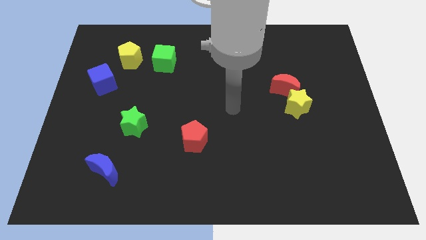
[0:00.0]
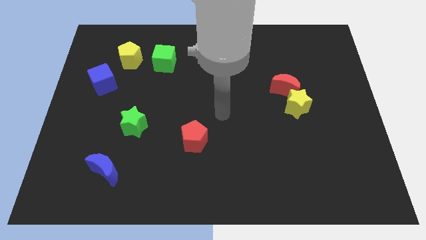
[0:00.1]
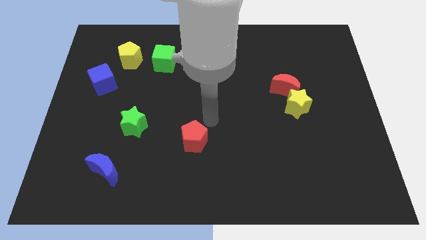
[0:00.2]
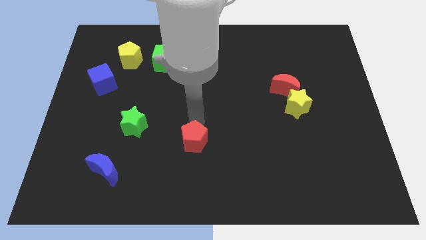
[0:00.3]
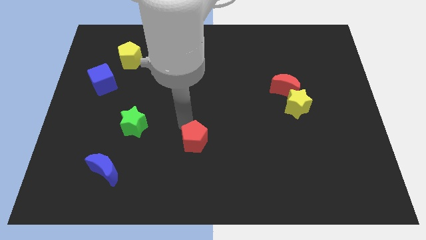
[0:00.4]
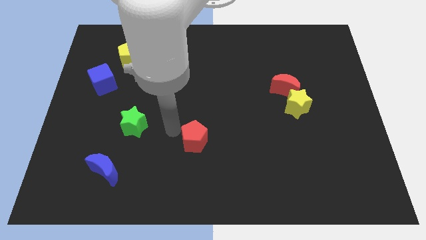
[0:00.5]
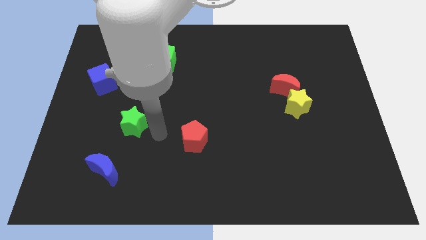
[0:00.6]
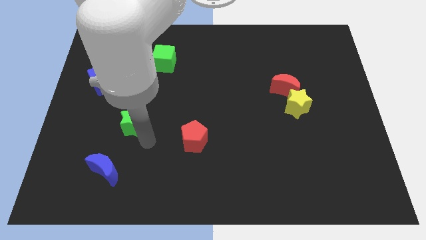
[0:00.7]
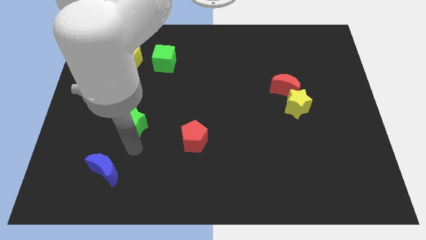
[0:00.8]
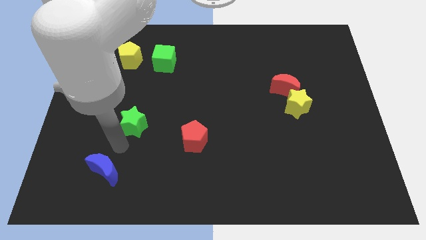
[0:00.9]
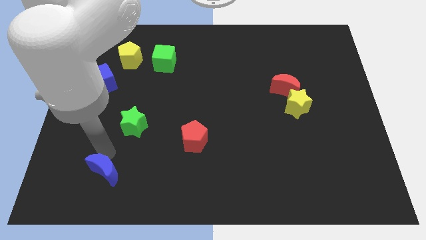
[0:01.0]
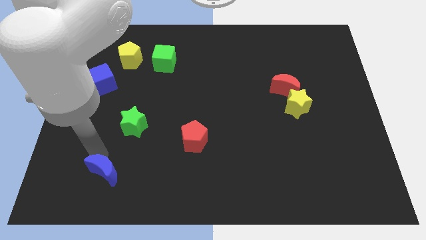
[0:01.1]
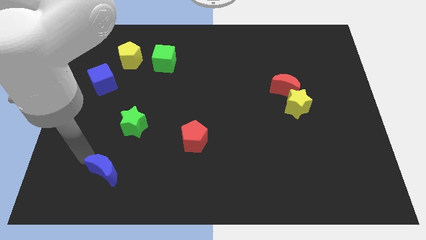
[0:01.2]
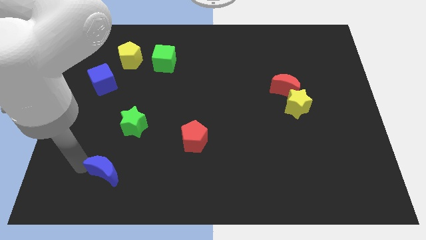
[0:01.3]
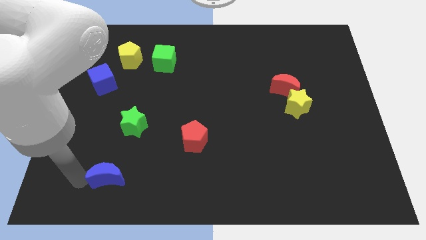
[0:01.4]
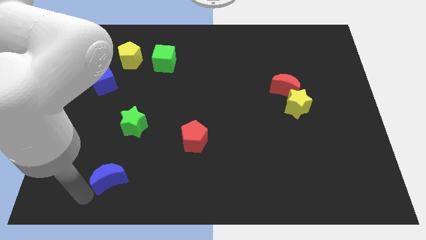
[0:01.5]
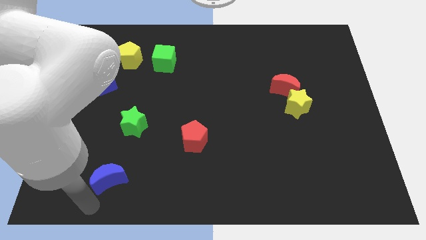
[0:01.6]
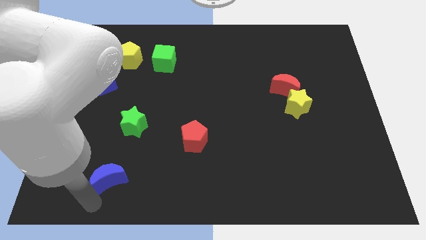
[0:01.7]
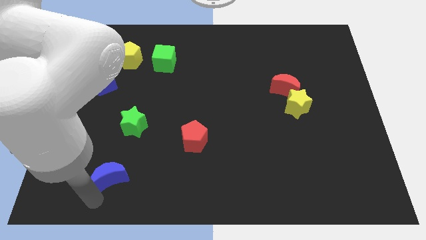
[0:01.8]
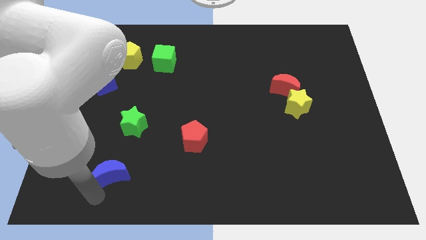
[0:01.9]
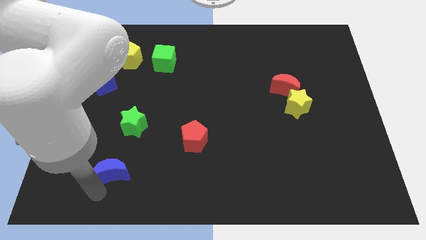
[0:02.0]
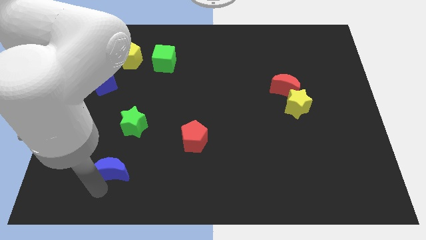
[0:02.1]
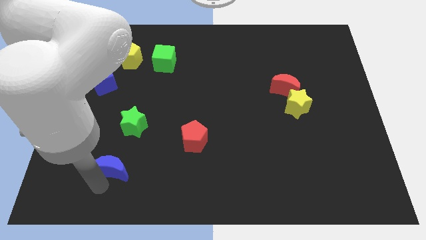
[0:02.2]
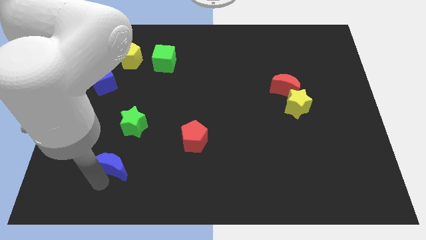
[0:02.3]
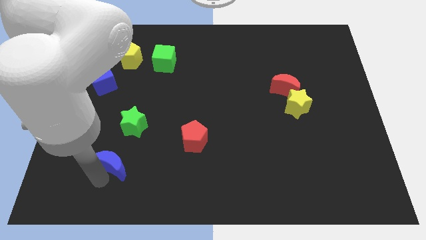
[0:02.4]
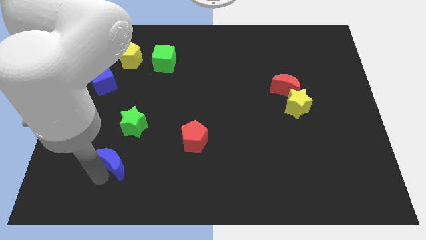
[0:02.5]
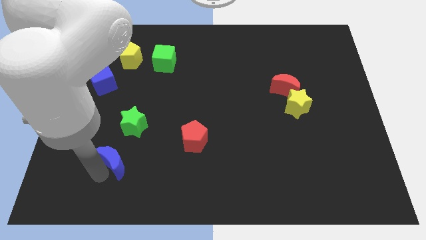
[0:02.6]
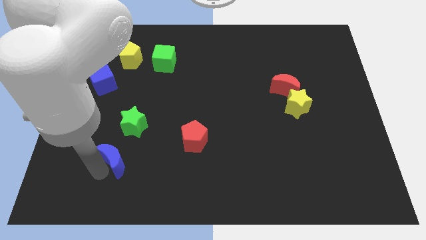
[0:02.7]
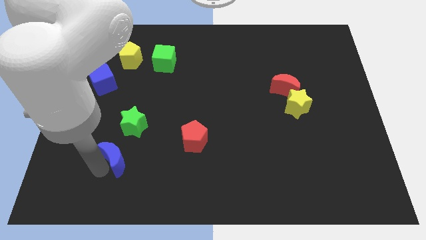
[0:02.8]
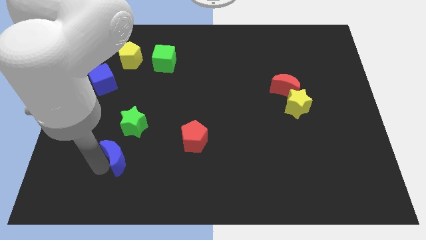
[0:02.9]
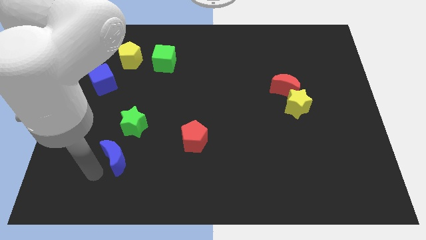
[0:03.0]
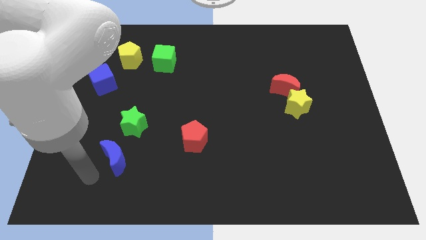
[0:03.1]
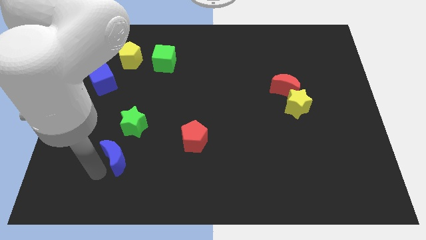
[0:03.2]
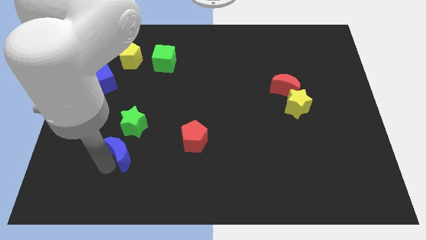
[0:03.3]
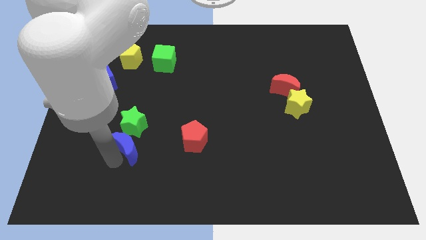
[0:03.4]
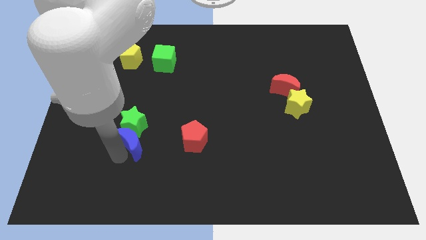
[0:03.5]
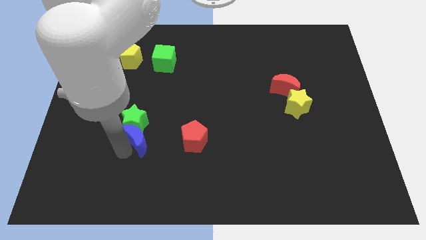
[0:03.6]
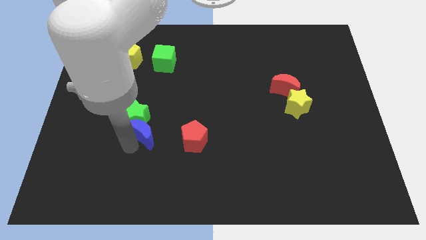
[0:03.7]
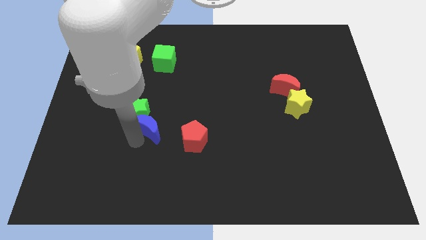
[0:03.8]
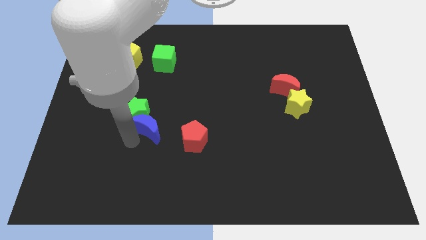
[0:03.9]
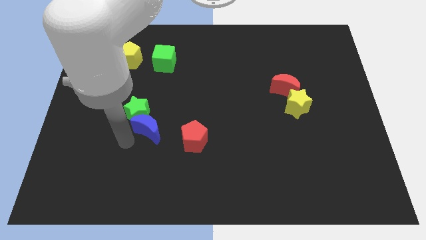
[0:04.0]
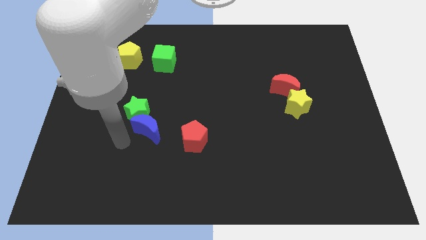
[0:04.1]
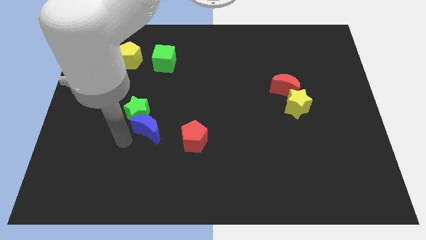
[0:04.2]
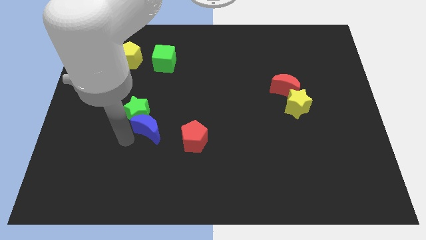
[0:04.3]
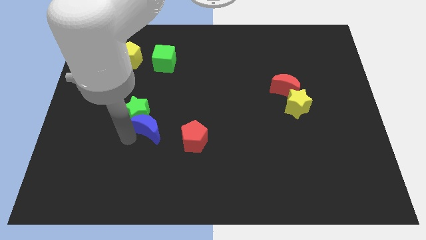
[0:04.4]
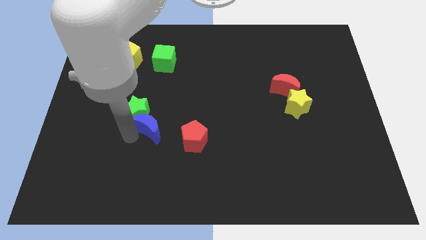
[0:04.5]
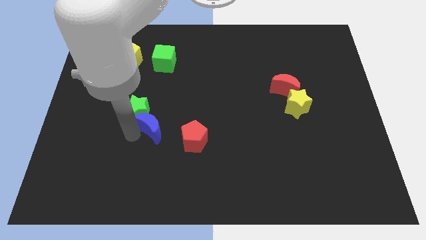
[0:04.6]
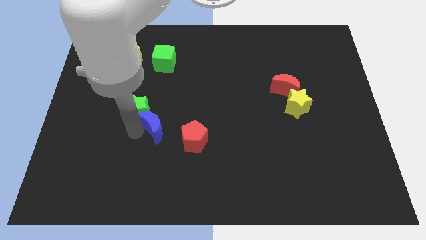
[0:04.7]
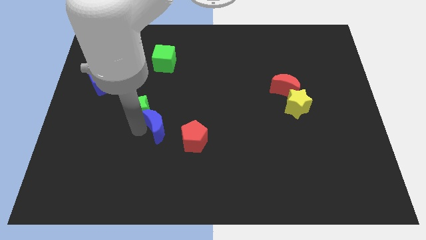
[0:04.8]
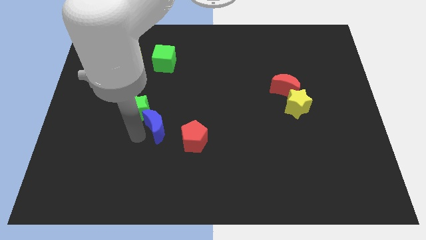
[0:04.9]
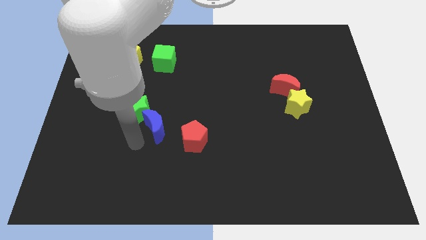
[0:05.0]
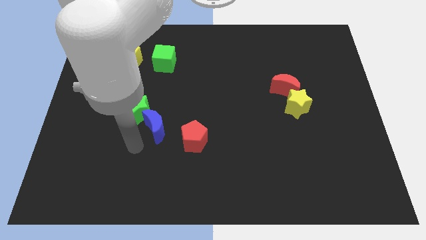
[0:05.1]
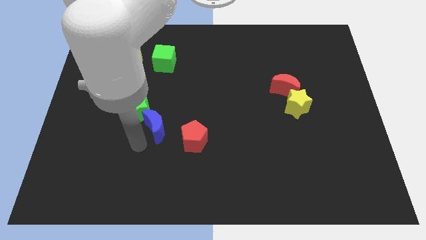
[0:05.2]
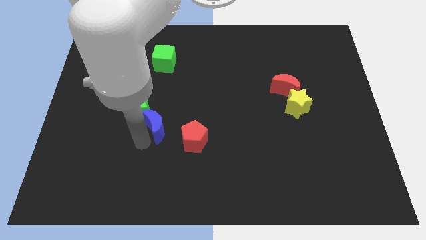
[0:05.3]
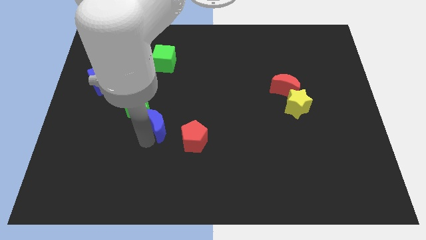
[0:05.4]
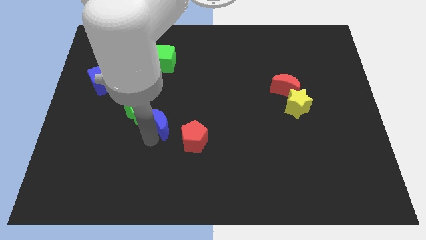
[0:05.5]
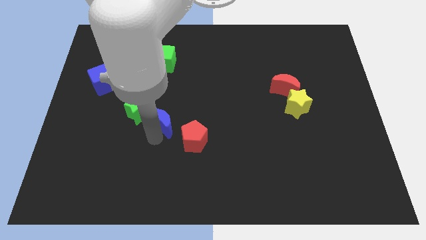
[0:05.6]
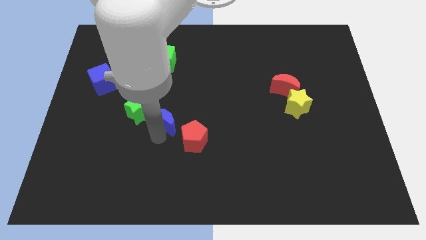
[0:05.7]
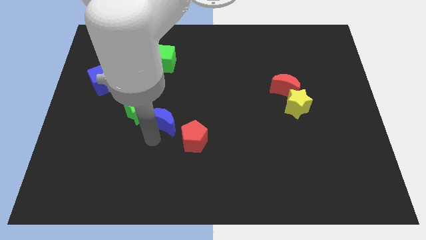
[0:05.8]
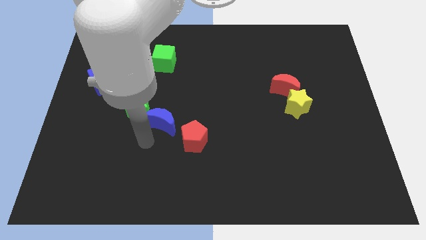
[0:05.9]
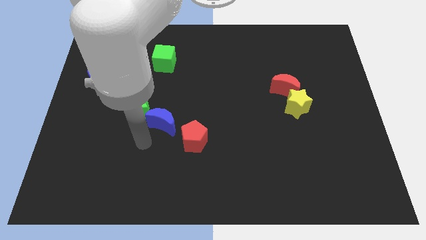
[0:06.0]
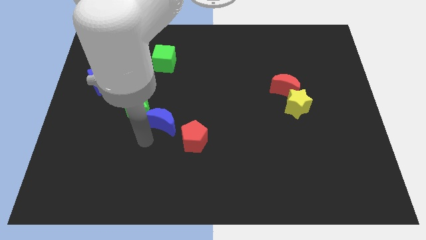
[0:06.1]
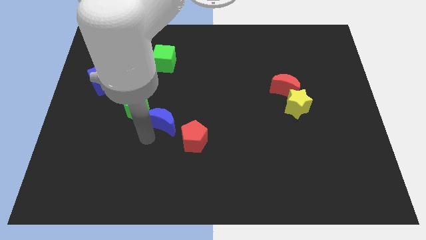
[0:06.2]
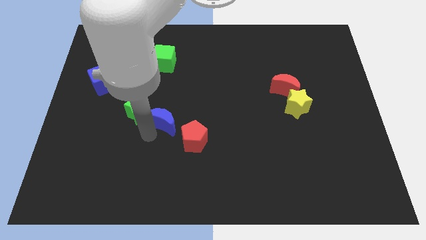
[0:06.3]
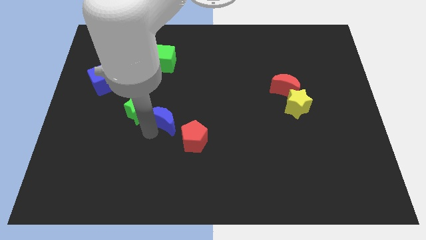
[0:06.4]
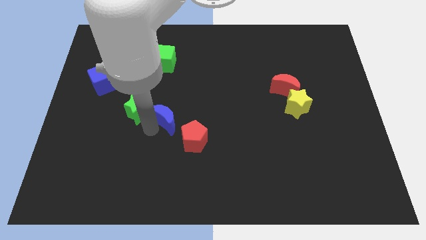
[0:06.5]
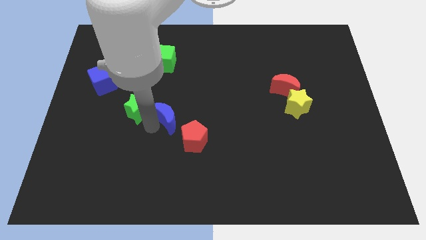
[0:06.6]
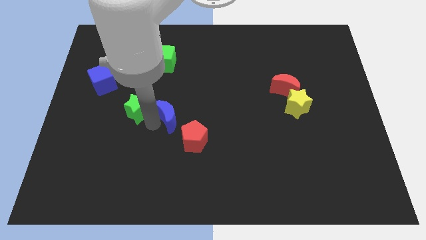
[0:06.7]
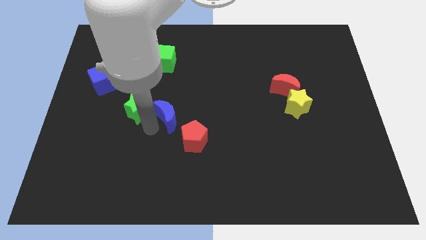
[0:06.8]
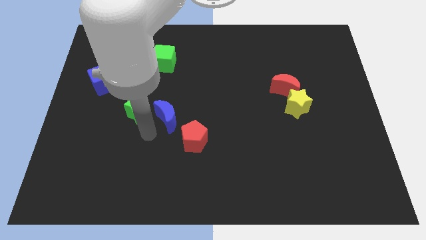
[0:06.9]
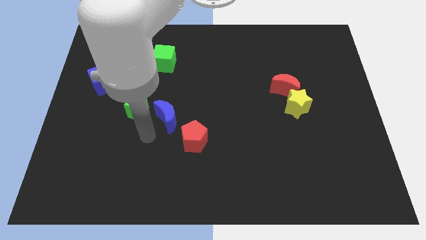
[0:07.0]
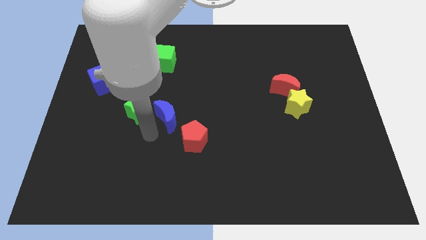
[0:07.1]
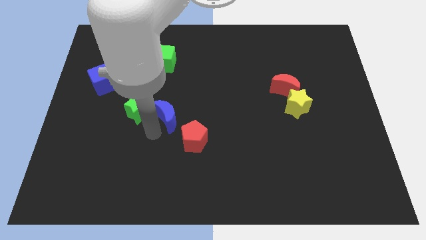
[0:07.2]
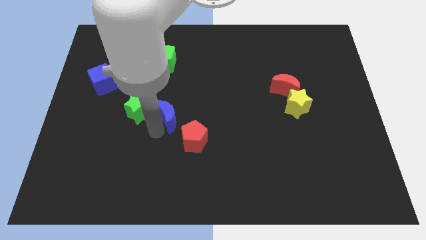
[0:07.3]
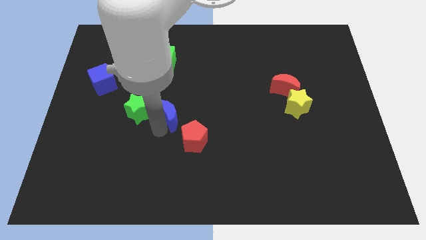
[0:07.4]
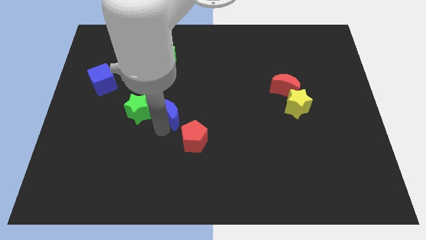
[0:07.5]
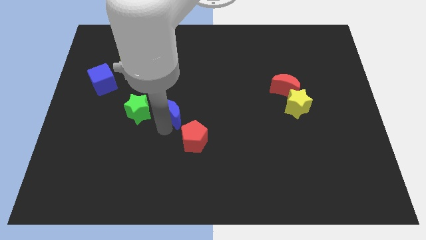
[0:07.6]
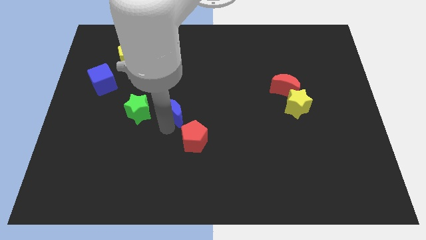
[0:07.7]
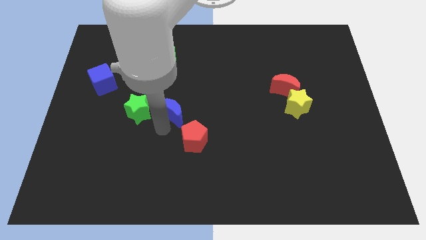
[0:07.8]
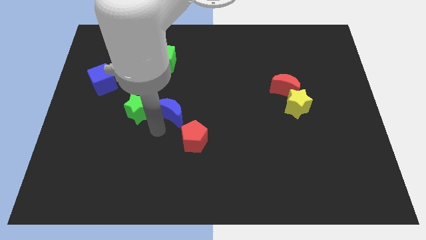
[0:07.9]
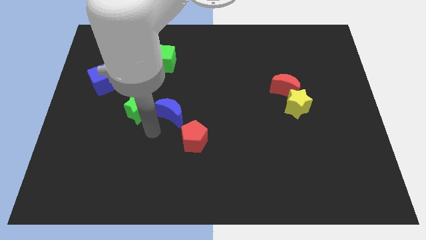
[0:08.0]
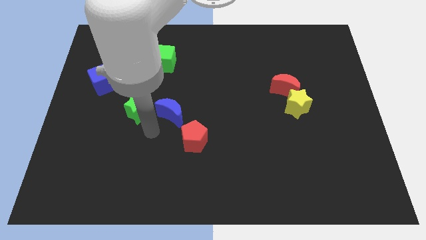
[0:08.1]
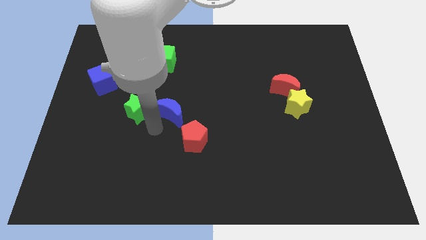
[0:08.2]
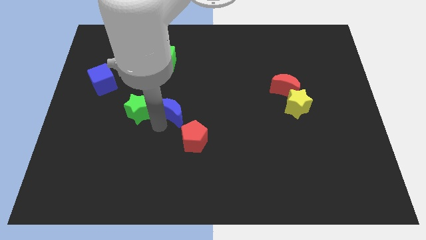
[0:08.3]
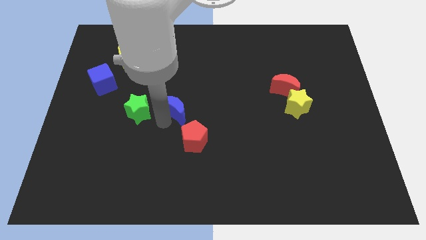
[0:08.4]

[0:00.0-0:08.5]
slide the blue moon upwards and then right
